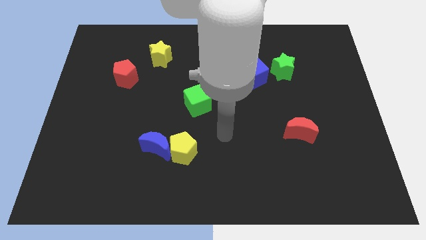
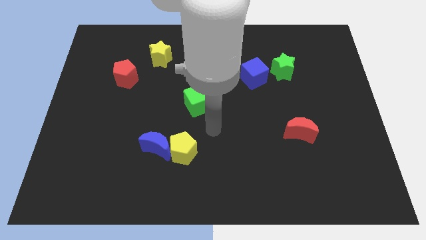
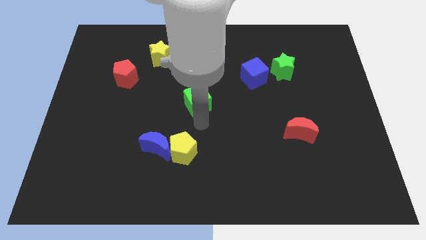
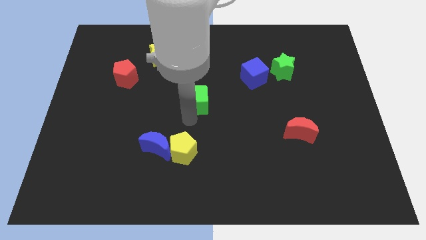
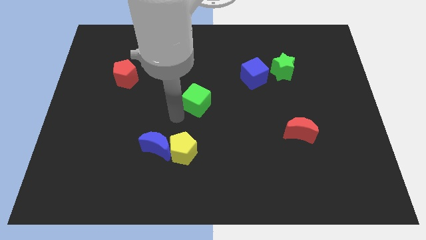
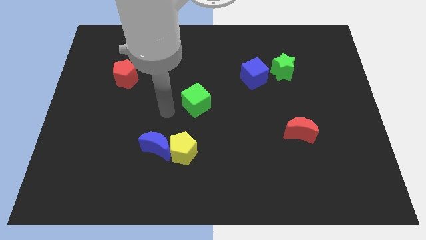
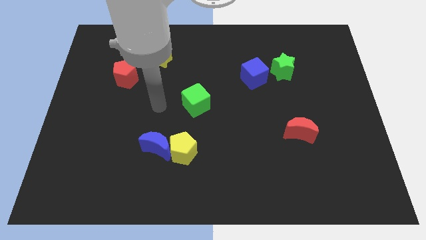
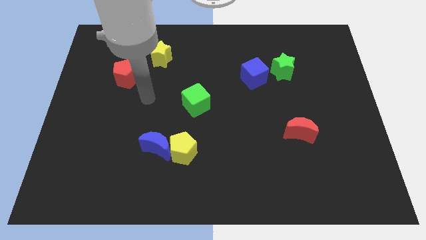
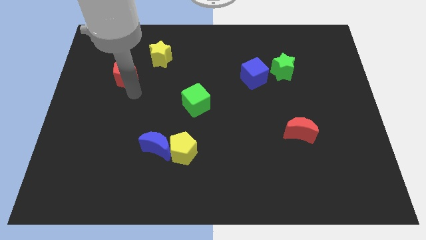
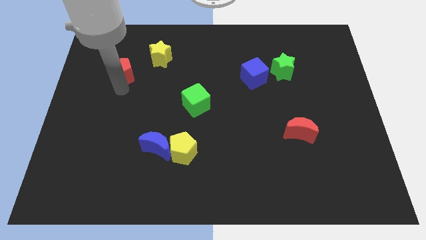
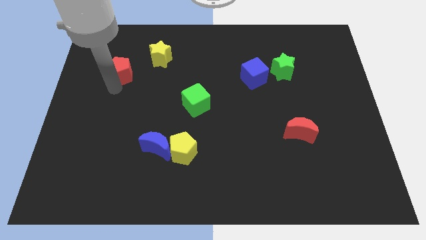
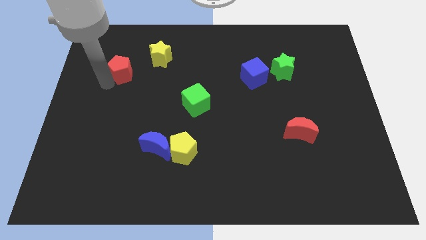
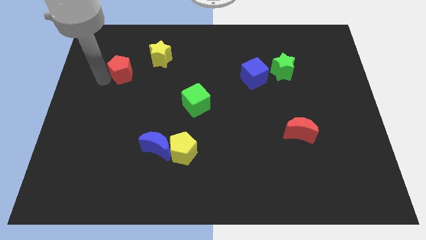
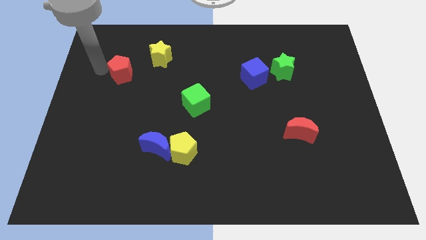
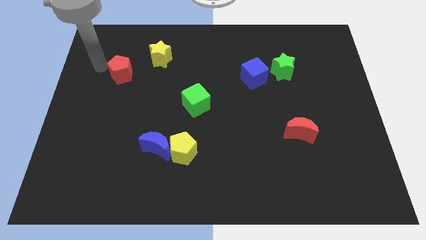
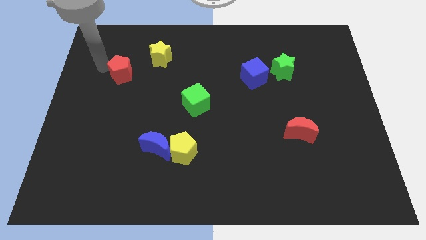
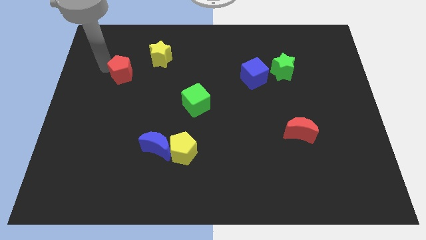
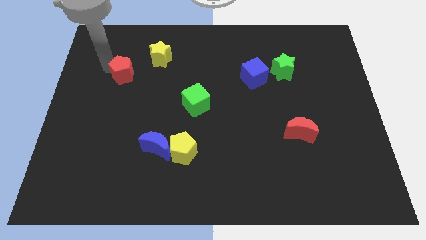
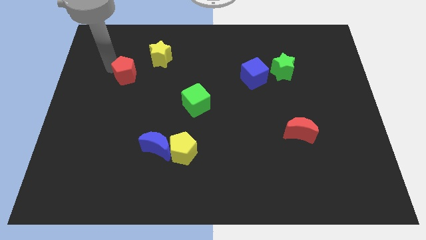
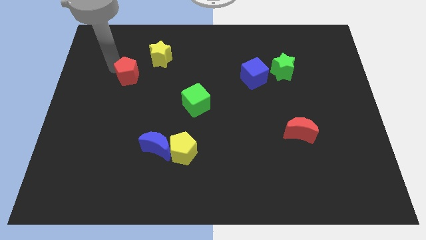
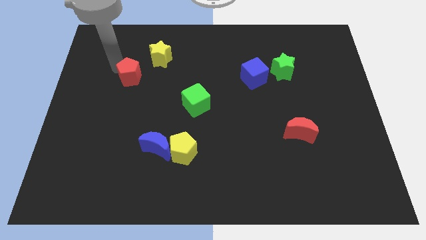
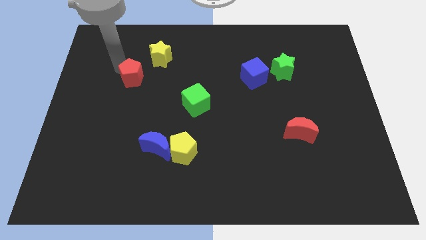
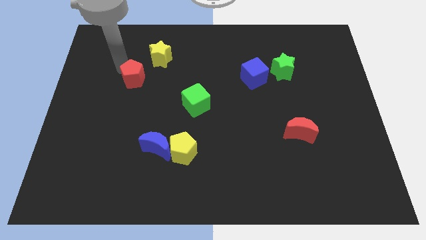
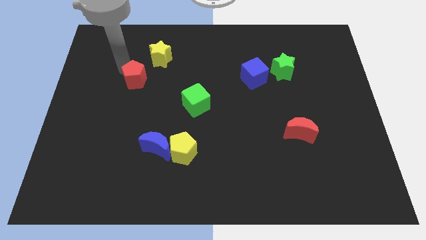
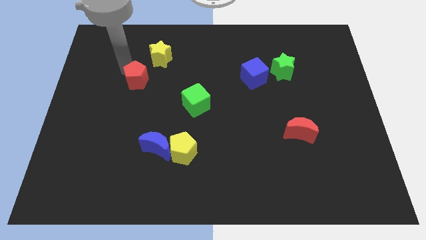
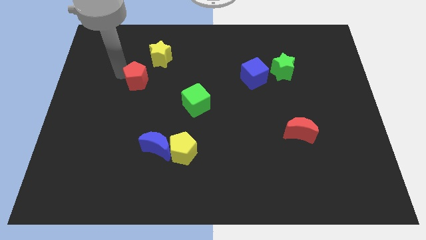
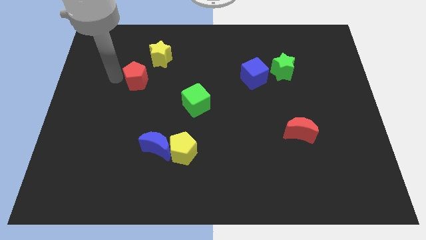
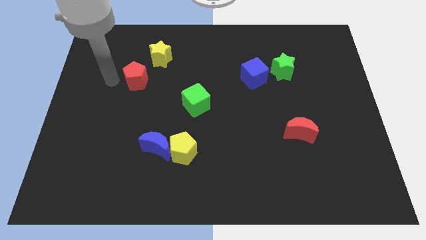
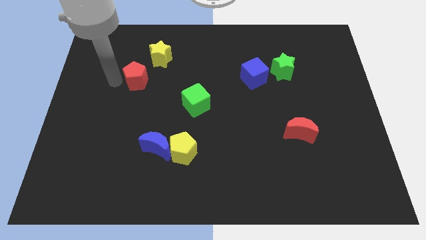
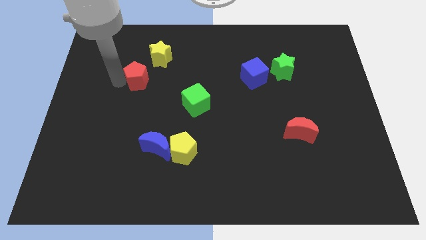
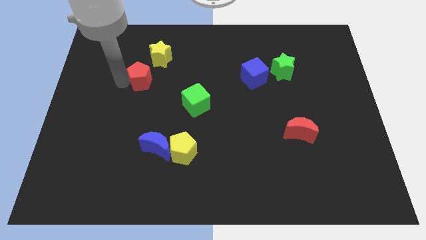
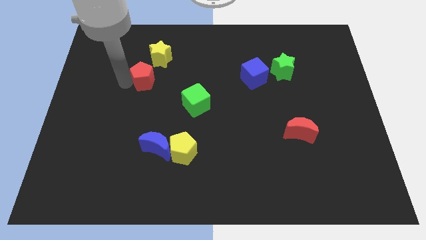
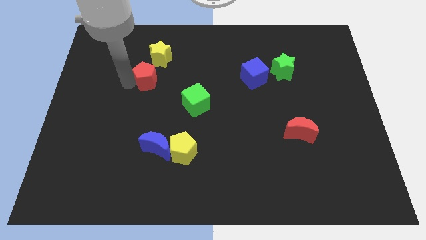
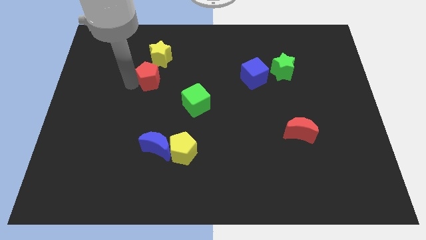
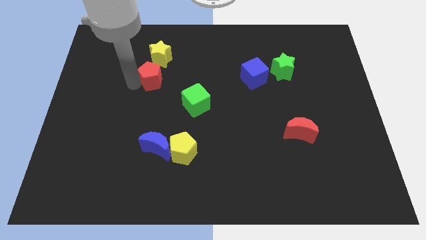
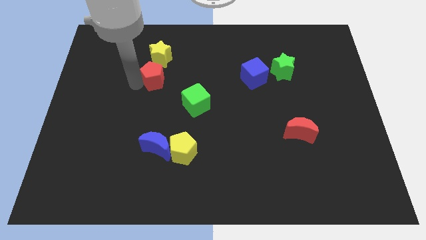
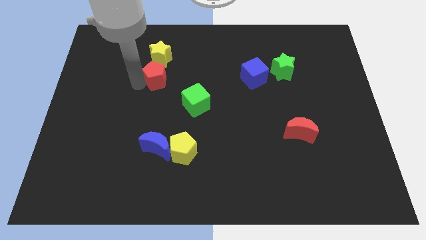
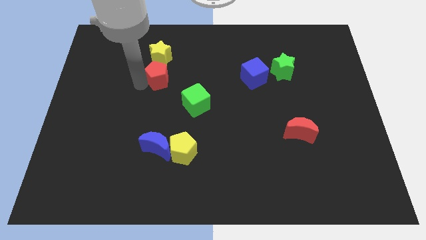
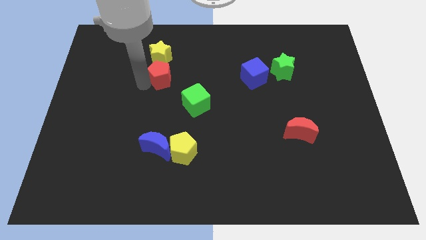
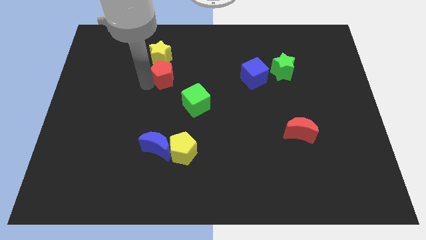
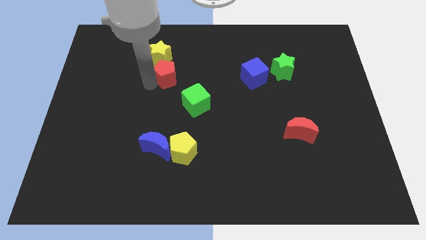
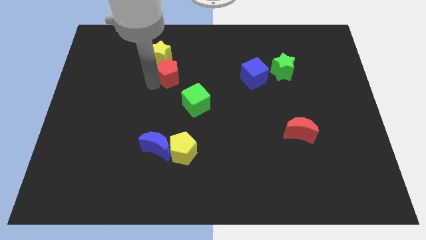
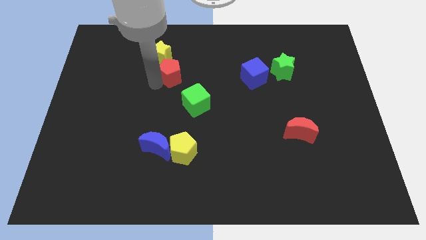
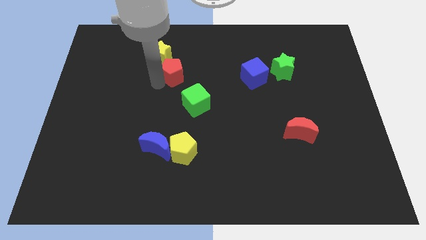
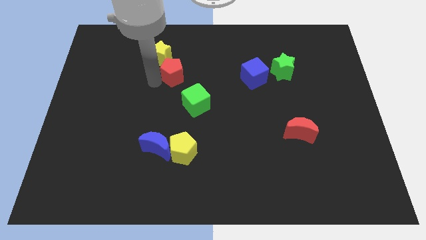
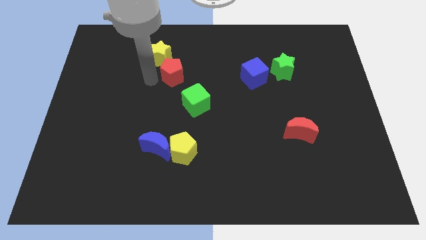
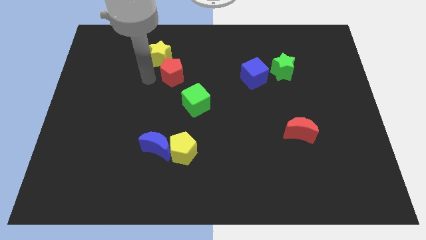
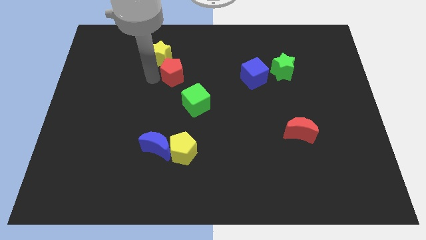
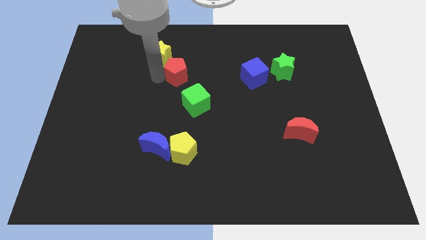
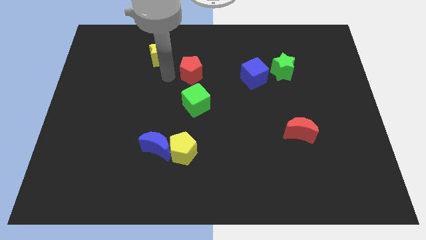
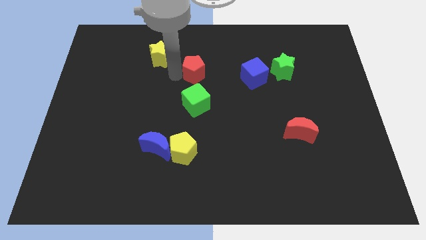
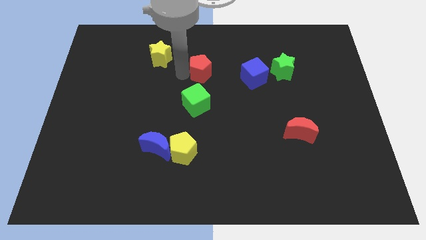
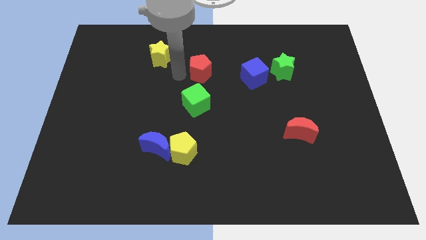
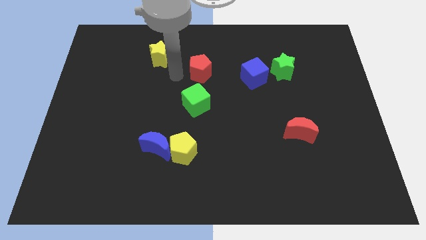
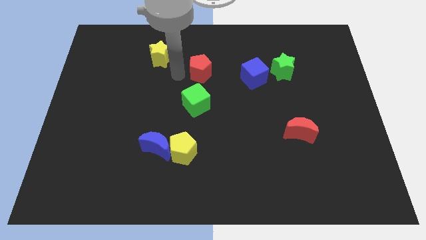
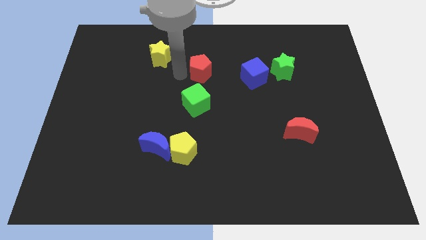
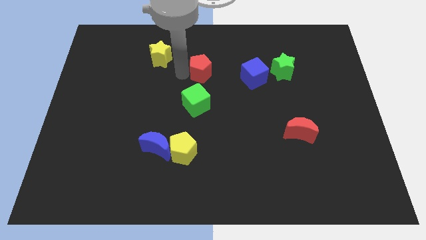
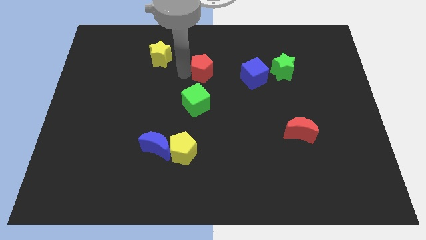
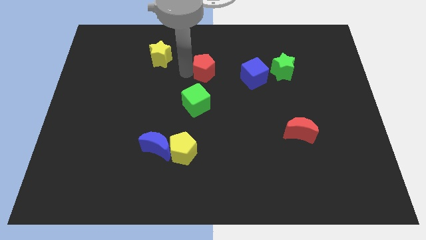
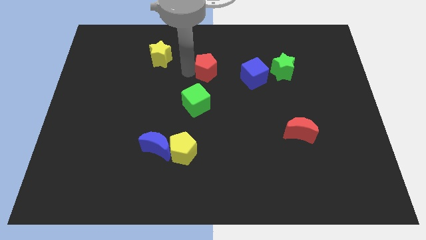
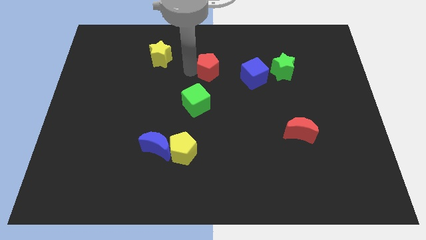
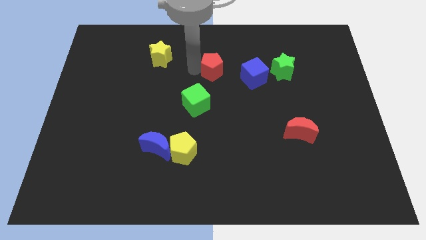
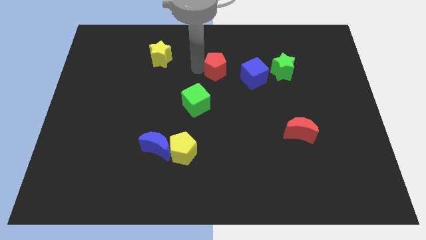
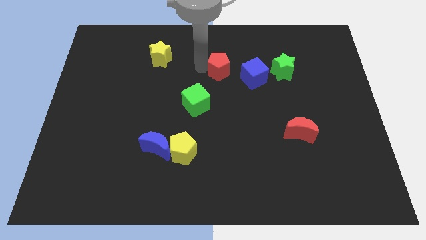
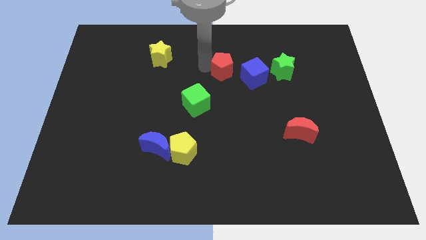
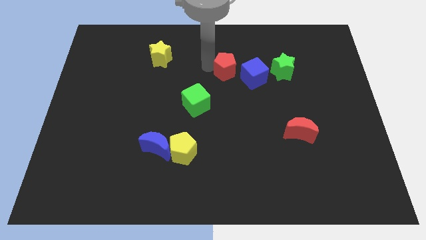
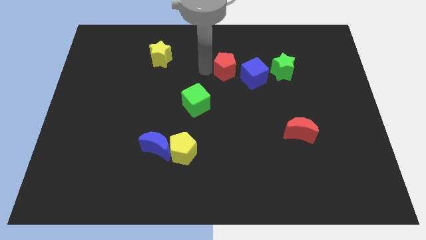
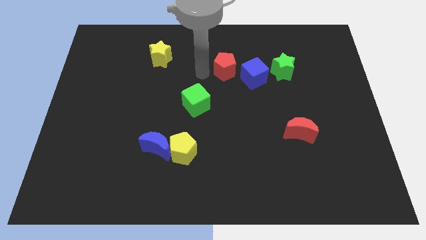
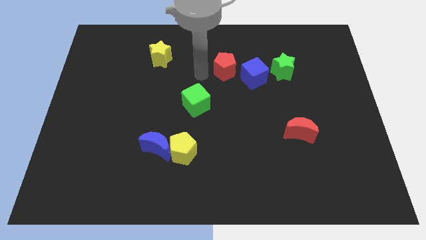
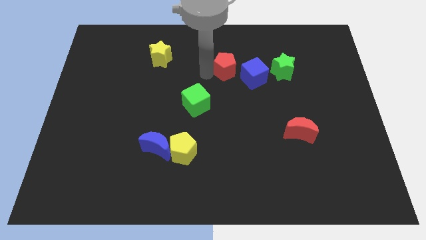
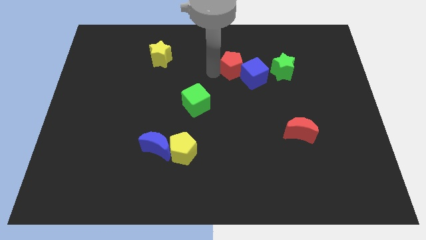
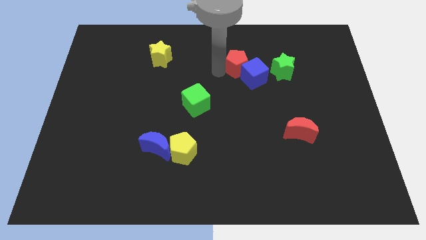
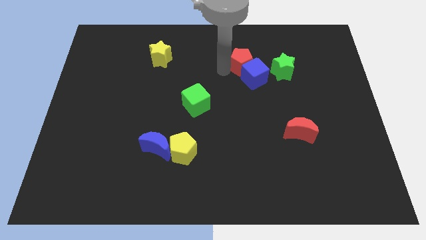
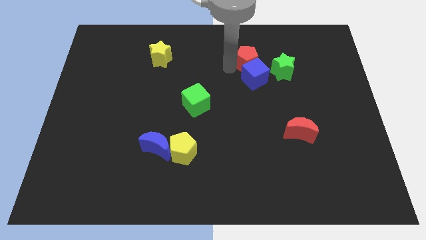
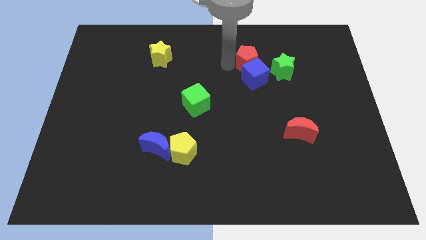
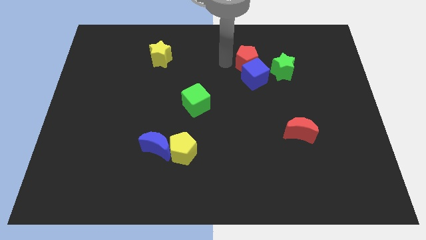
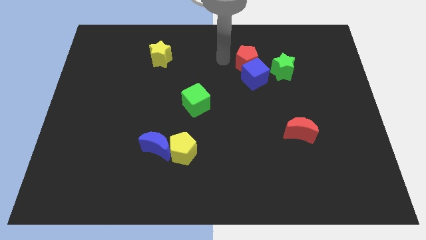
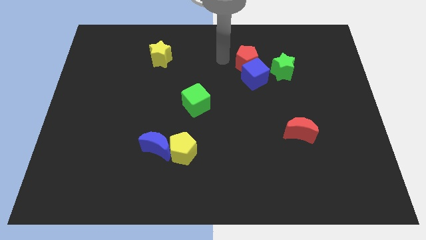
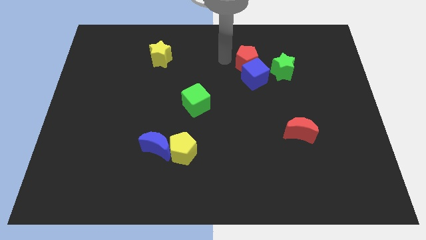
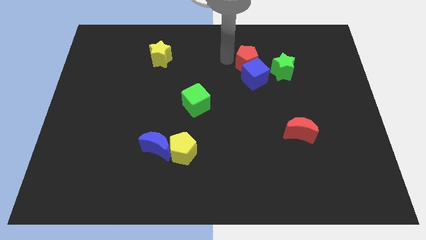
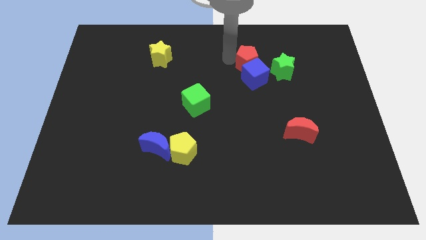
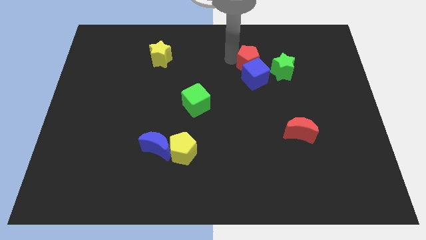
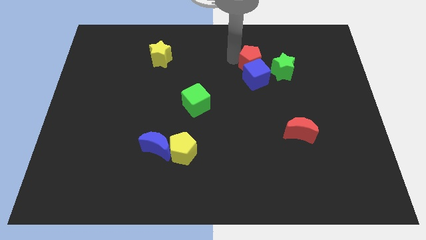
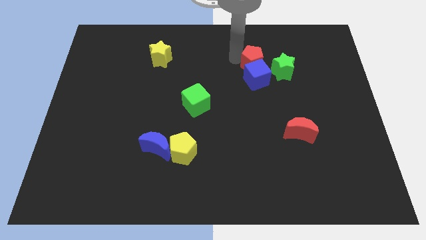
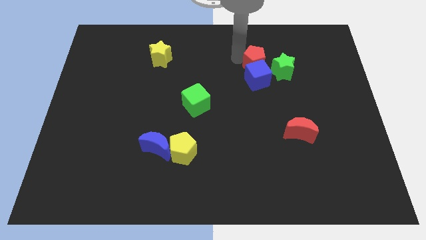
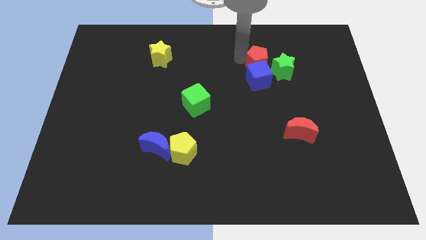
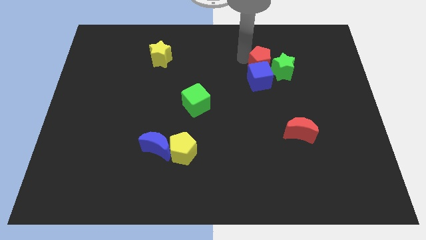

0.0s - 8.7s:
move the red pentagon to the green star
